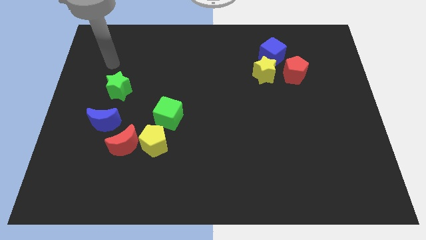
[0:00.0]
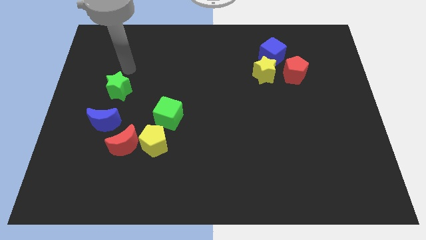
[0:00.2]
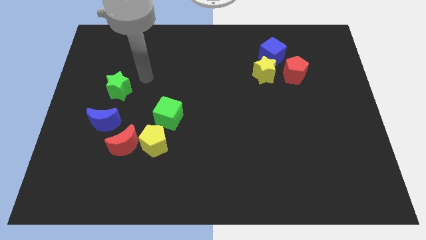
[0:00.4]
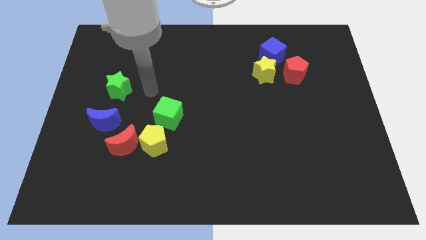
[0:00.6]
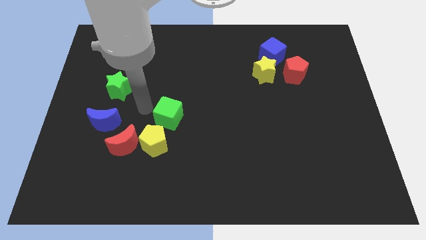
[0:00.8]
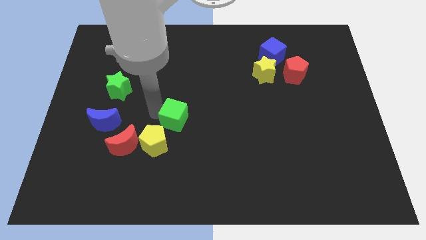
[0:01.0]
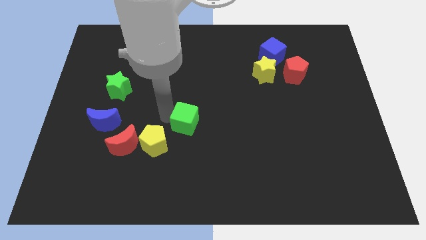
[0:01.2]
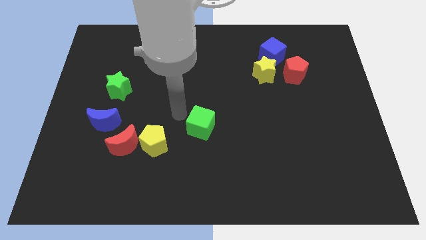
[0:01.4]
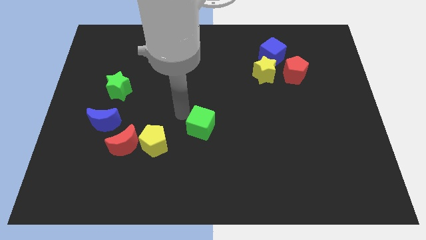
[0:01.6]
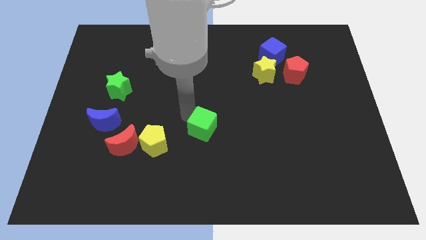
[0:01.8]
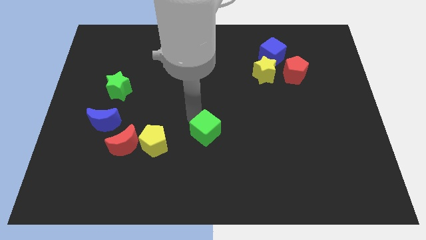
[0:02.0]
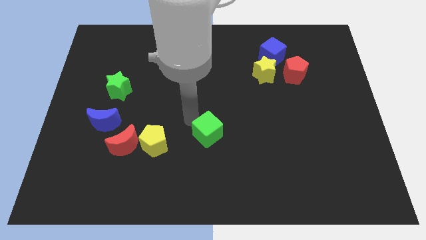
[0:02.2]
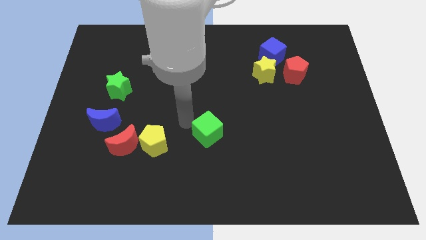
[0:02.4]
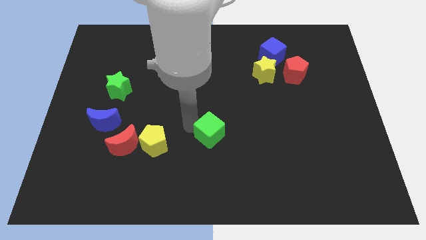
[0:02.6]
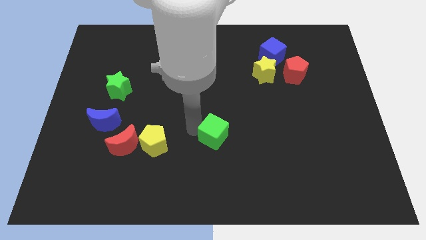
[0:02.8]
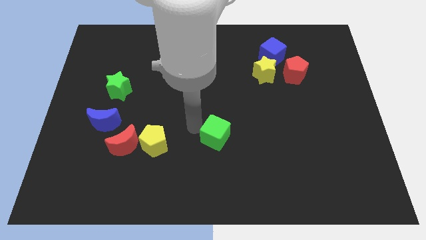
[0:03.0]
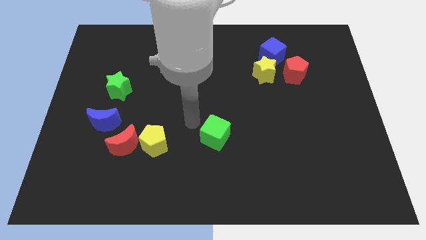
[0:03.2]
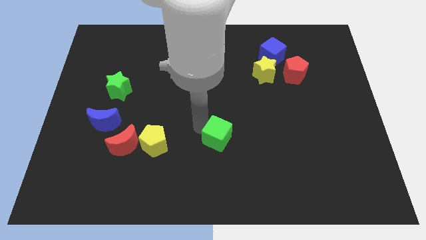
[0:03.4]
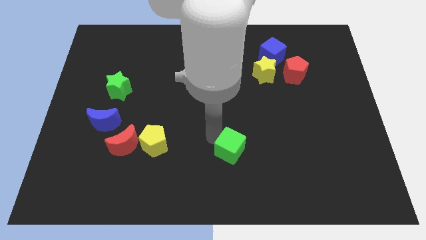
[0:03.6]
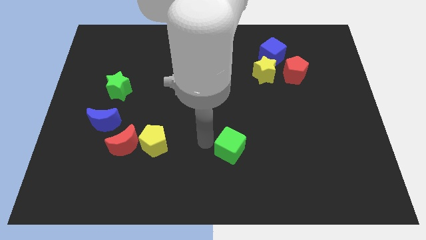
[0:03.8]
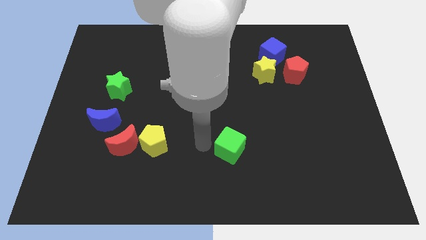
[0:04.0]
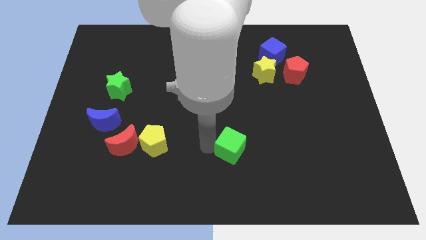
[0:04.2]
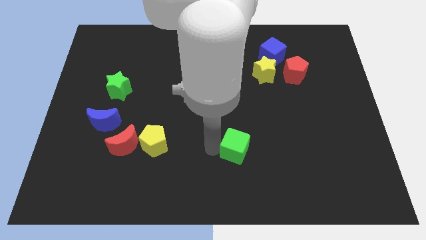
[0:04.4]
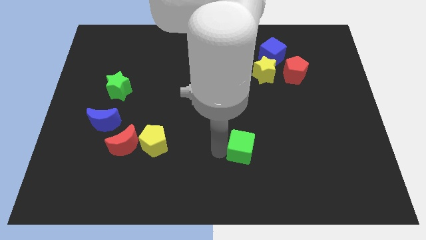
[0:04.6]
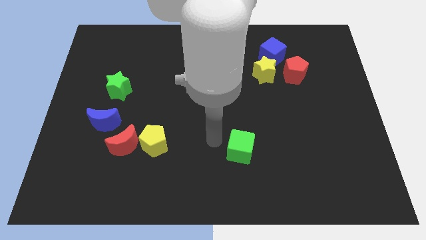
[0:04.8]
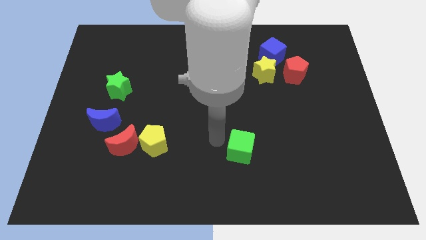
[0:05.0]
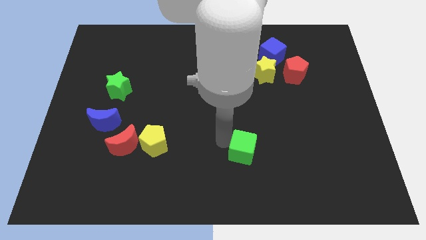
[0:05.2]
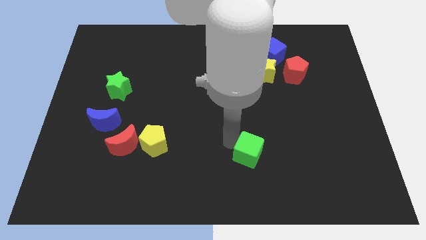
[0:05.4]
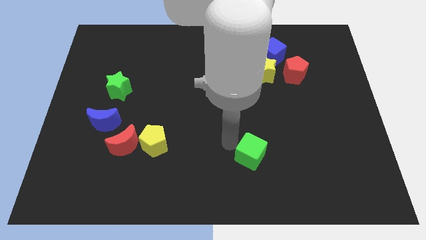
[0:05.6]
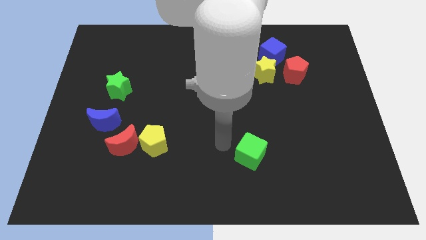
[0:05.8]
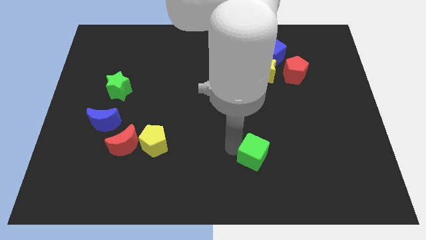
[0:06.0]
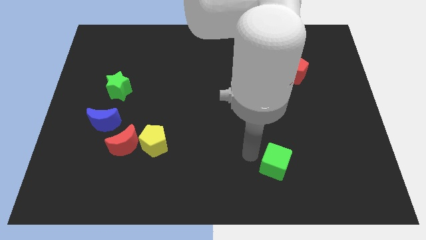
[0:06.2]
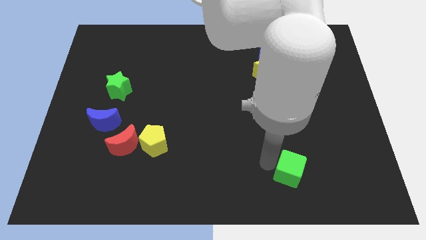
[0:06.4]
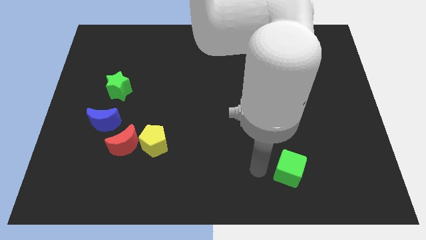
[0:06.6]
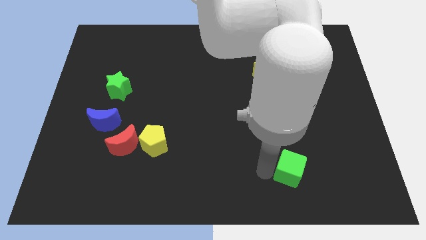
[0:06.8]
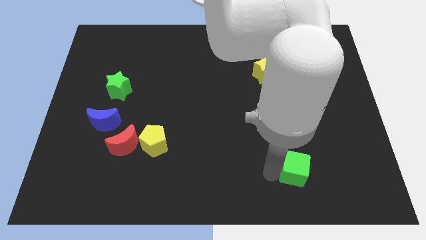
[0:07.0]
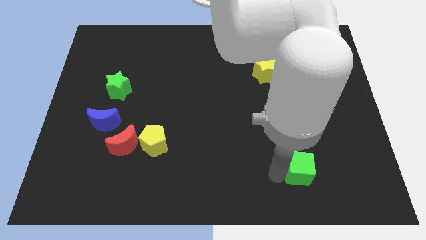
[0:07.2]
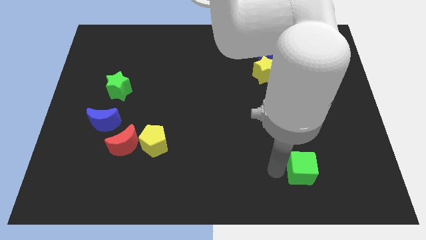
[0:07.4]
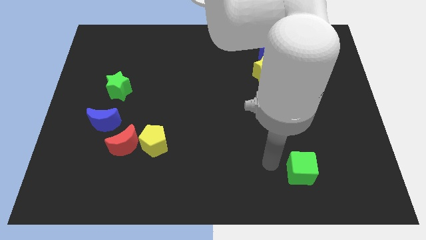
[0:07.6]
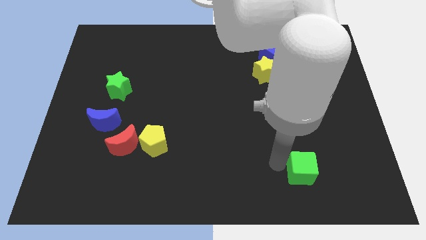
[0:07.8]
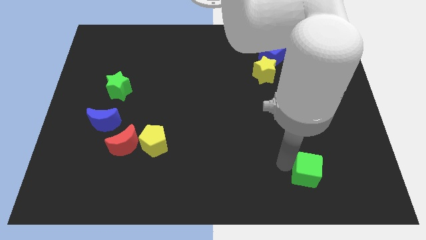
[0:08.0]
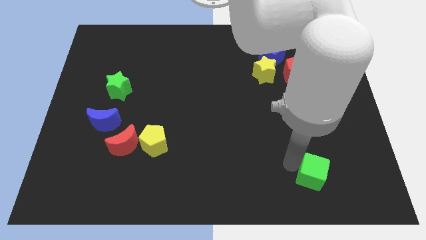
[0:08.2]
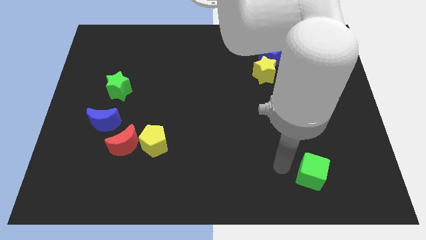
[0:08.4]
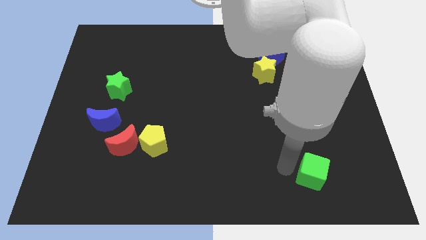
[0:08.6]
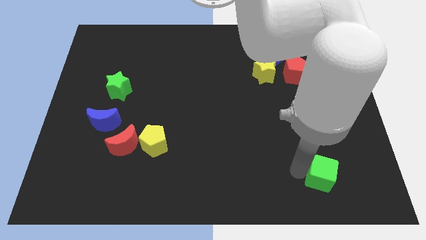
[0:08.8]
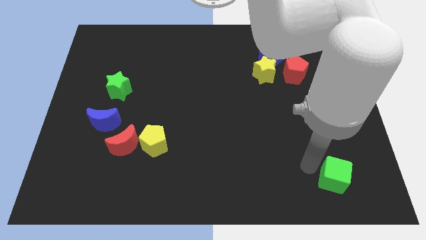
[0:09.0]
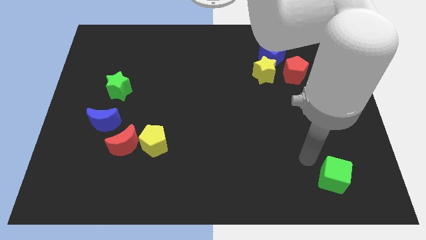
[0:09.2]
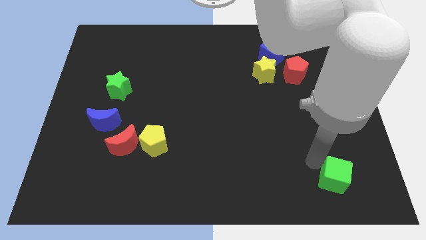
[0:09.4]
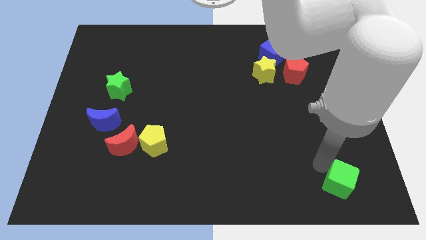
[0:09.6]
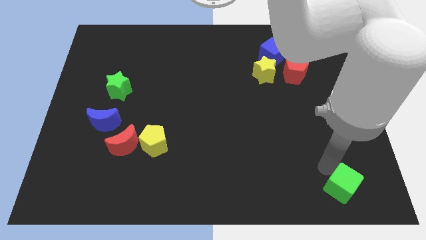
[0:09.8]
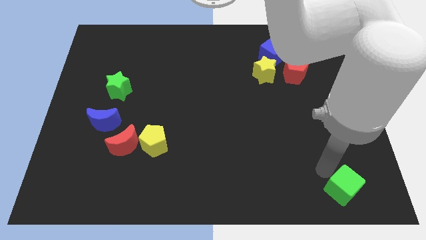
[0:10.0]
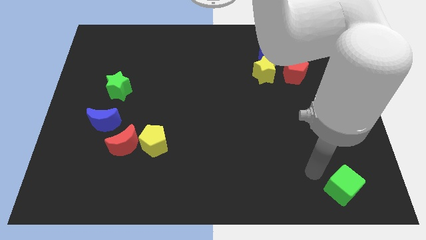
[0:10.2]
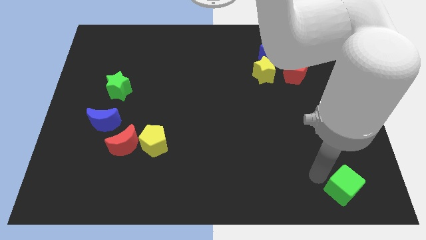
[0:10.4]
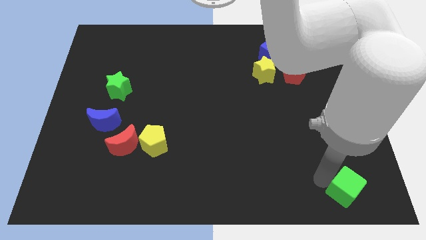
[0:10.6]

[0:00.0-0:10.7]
move the green cube to the bottom right corner

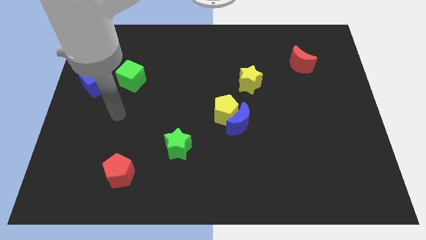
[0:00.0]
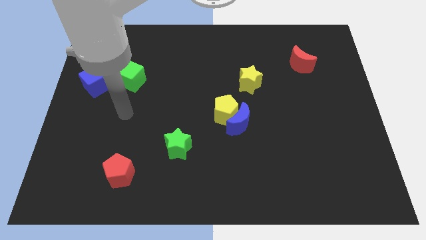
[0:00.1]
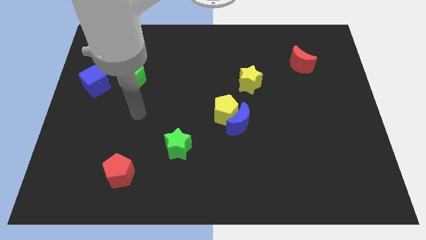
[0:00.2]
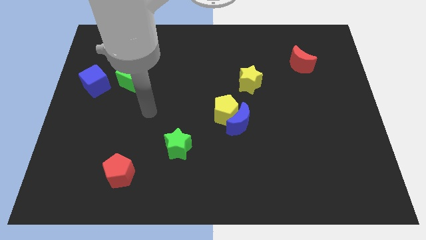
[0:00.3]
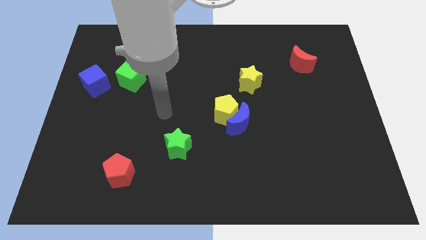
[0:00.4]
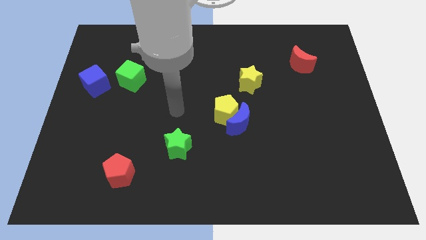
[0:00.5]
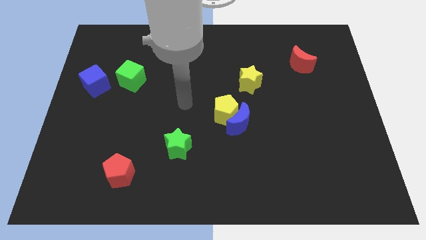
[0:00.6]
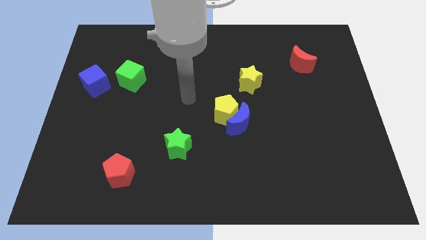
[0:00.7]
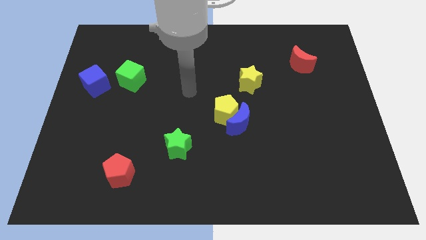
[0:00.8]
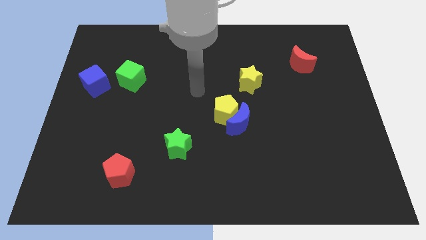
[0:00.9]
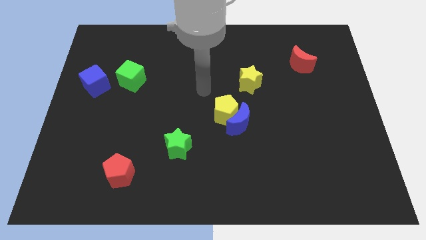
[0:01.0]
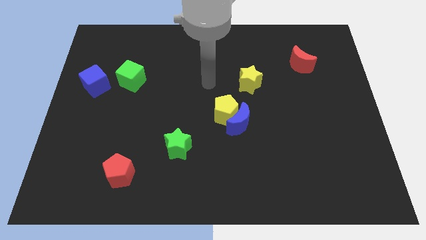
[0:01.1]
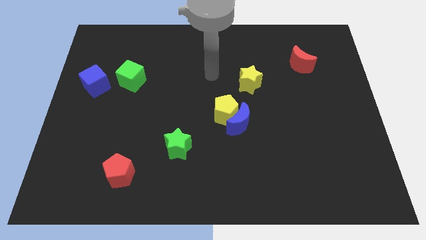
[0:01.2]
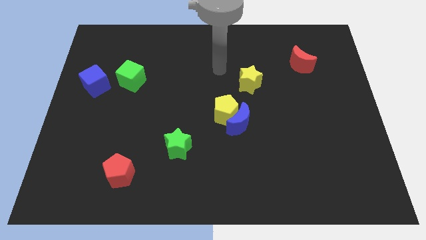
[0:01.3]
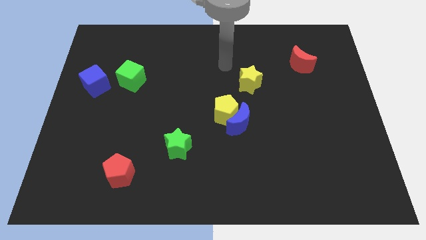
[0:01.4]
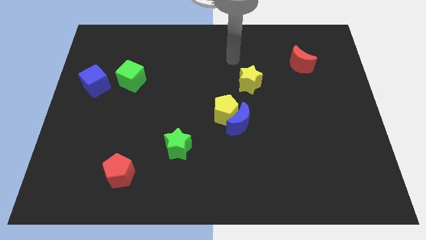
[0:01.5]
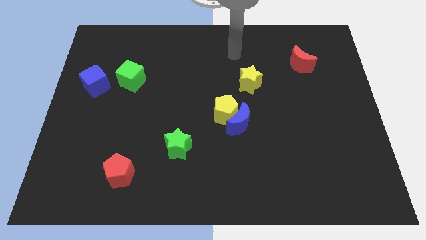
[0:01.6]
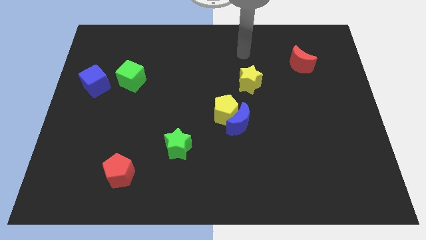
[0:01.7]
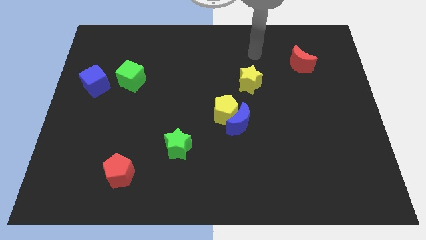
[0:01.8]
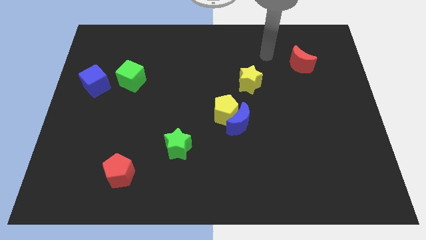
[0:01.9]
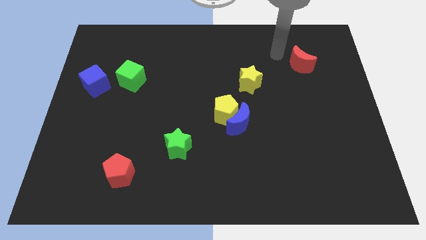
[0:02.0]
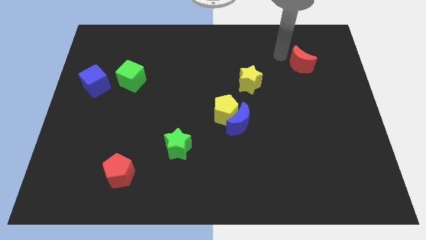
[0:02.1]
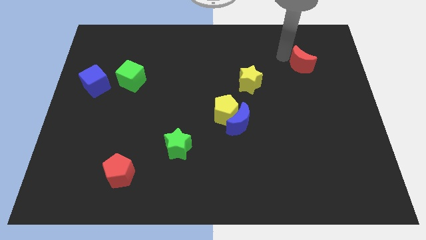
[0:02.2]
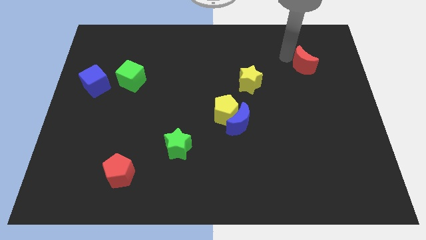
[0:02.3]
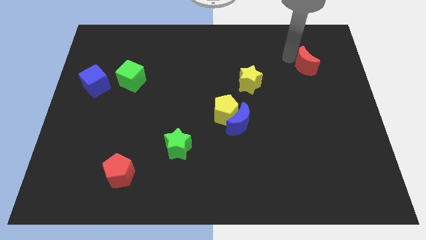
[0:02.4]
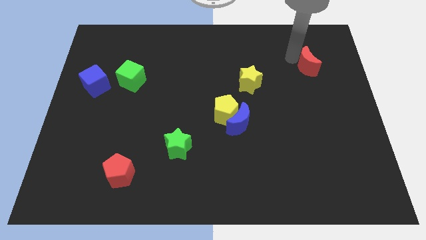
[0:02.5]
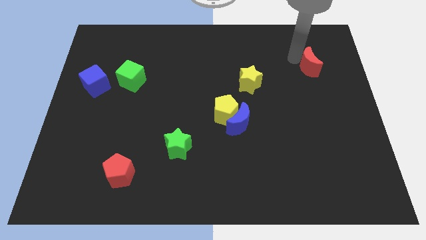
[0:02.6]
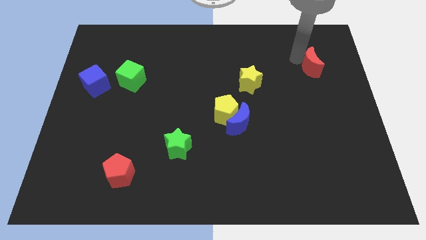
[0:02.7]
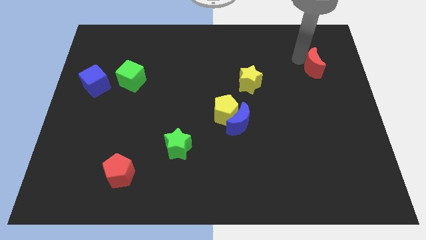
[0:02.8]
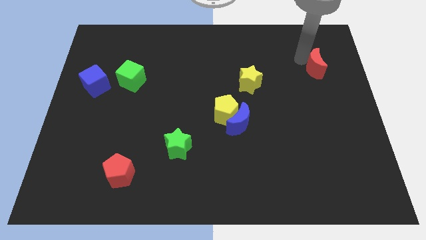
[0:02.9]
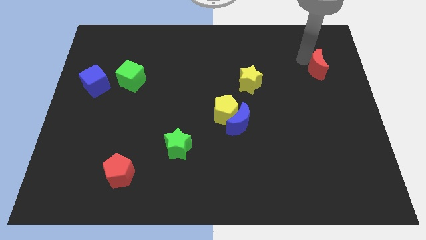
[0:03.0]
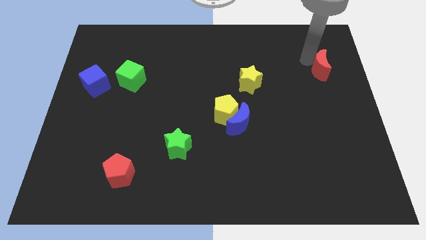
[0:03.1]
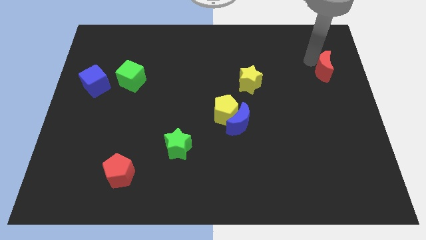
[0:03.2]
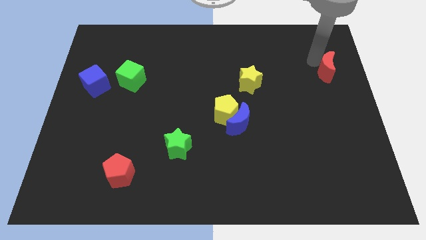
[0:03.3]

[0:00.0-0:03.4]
push the red moon to the right side
